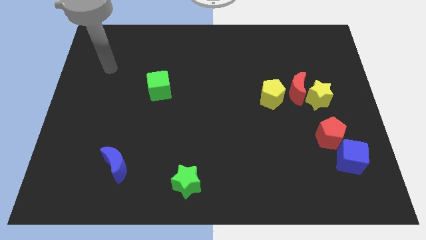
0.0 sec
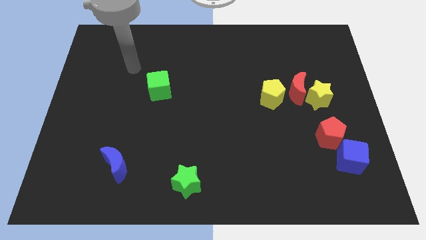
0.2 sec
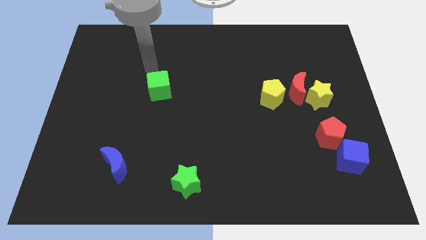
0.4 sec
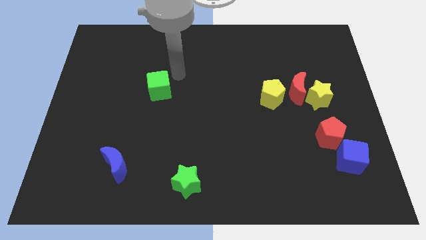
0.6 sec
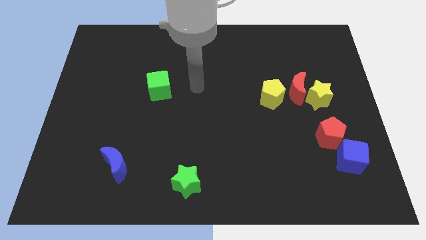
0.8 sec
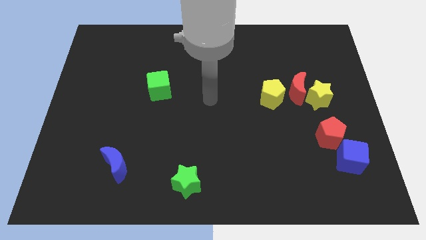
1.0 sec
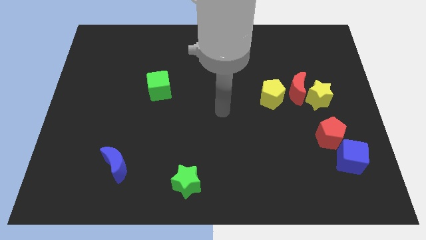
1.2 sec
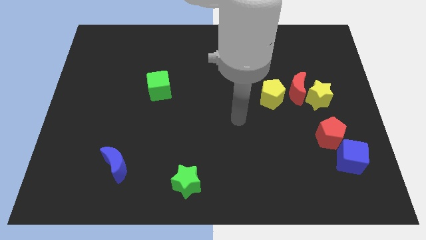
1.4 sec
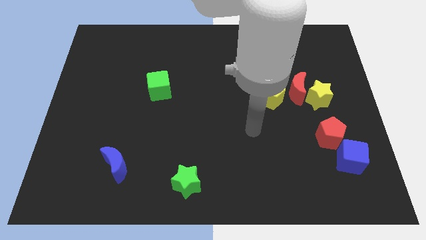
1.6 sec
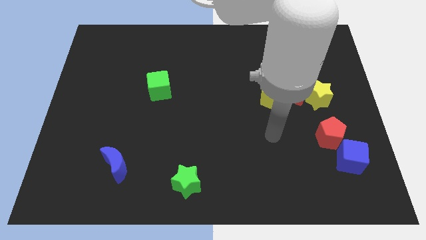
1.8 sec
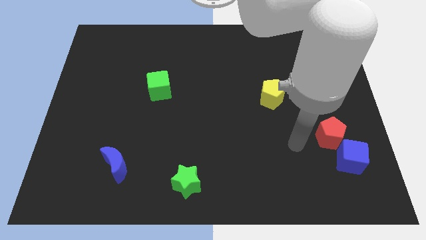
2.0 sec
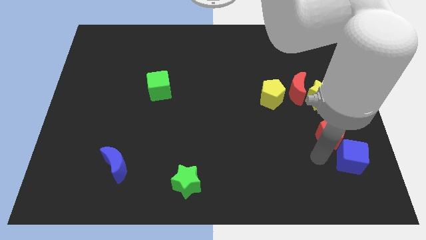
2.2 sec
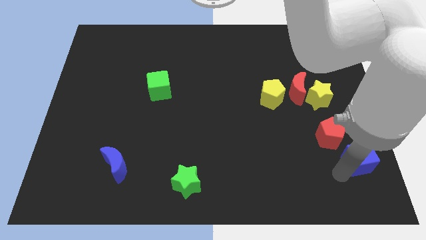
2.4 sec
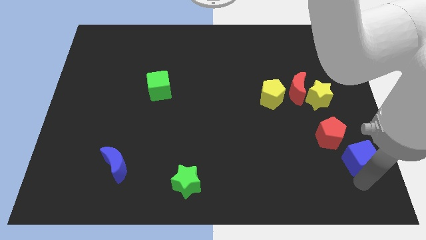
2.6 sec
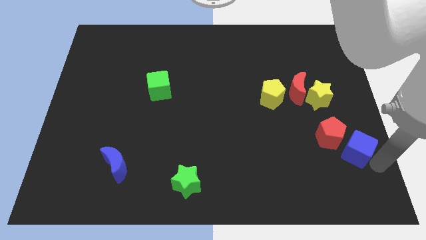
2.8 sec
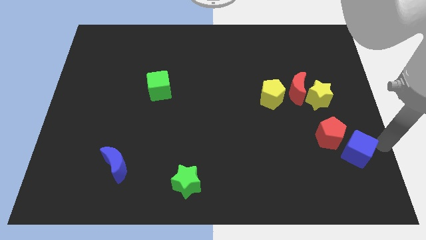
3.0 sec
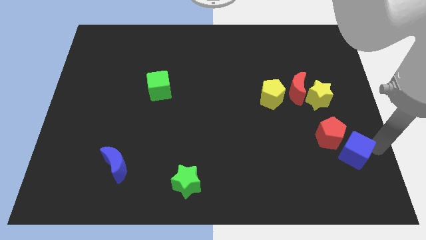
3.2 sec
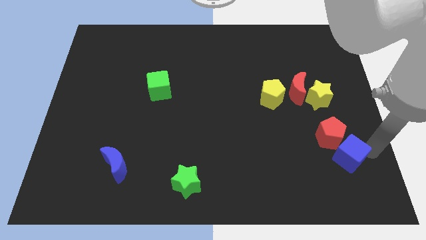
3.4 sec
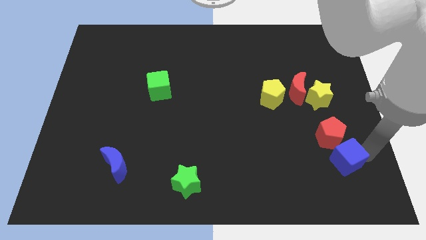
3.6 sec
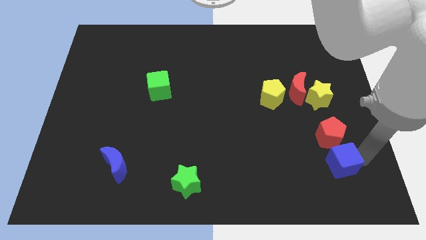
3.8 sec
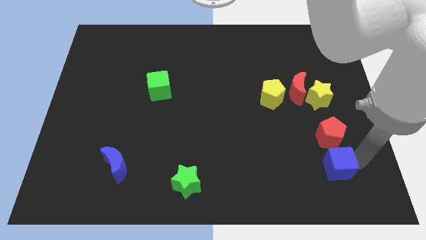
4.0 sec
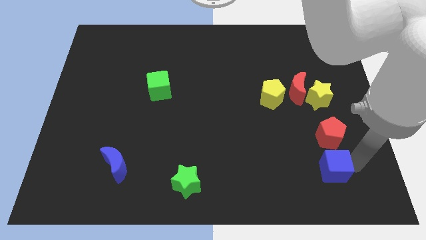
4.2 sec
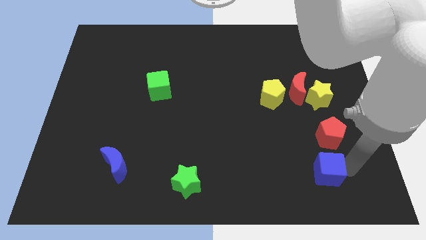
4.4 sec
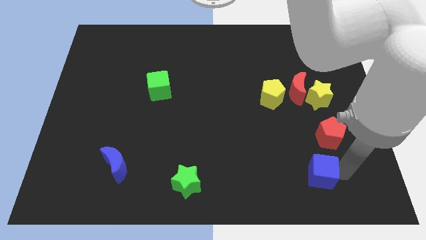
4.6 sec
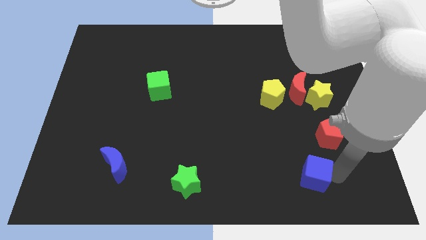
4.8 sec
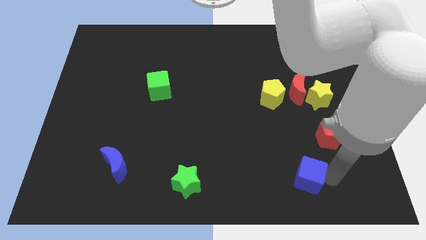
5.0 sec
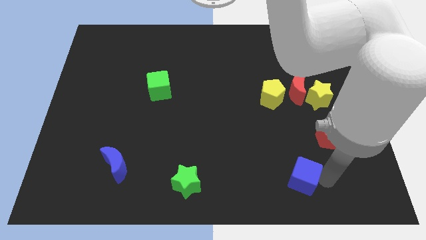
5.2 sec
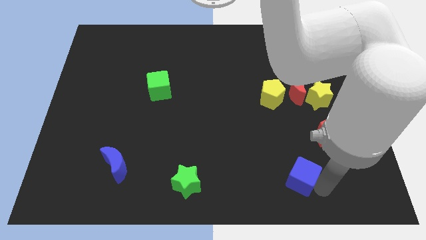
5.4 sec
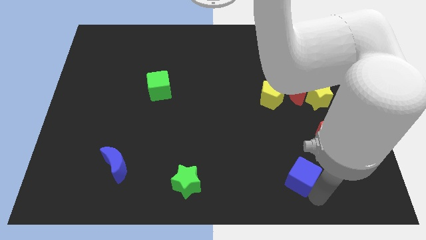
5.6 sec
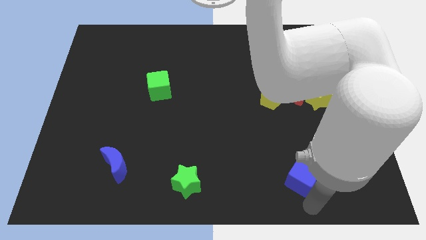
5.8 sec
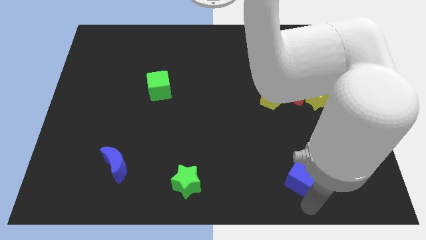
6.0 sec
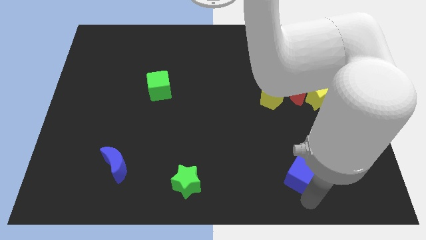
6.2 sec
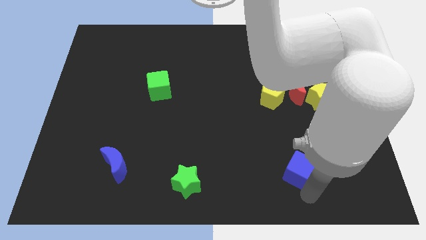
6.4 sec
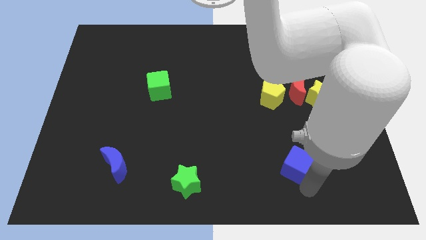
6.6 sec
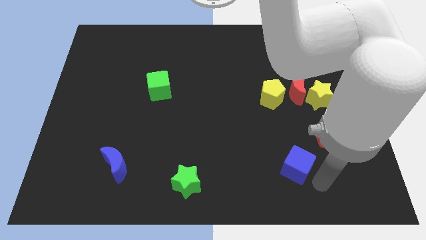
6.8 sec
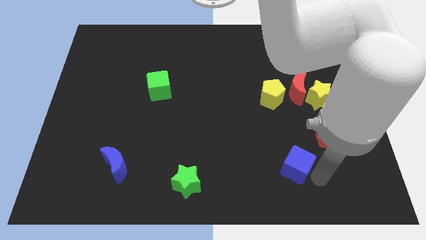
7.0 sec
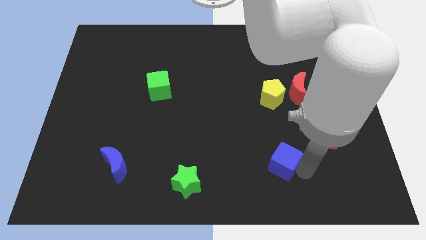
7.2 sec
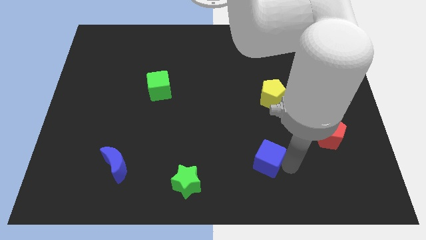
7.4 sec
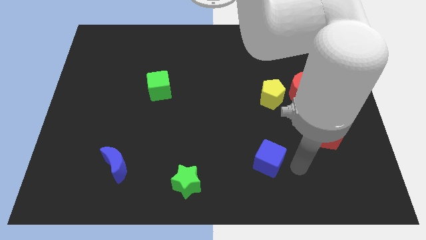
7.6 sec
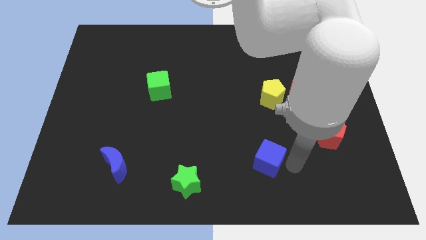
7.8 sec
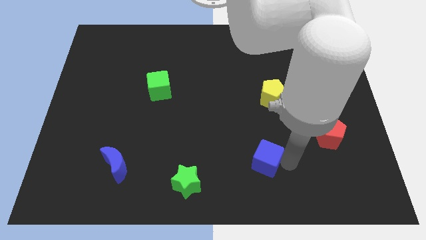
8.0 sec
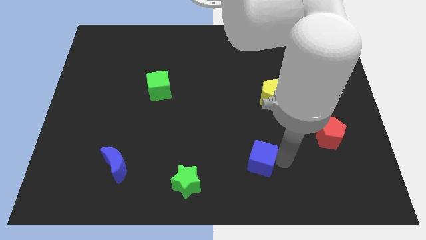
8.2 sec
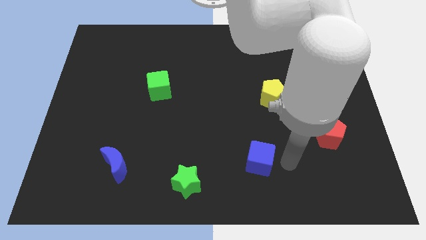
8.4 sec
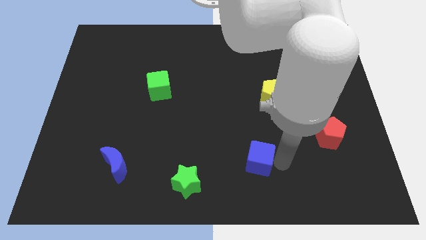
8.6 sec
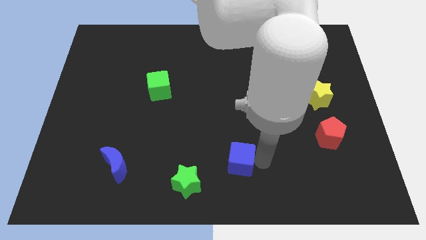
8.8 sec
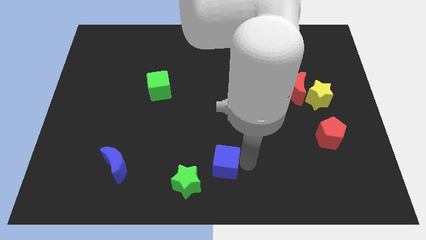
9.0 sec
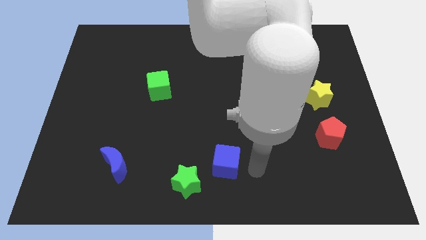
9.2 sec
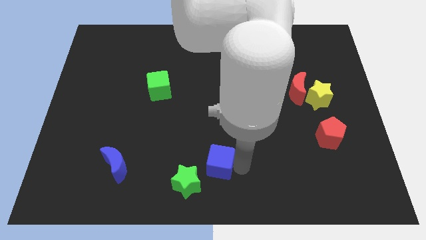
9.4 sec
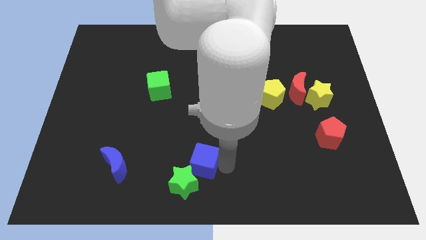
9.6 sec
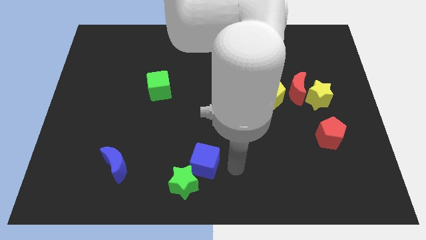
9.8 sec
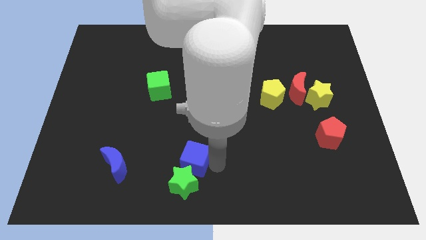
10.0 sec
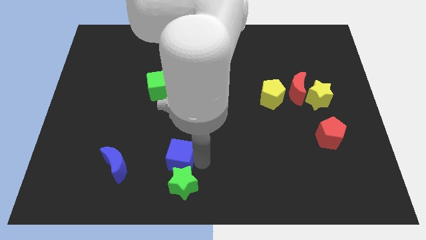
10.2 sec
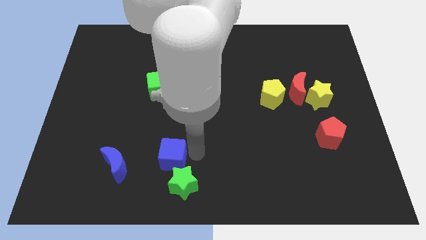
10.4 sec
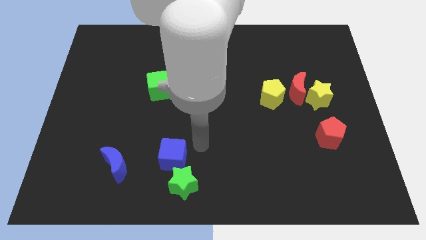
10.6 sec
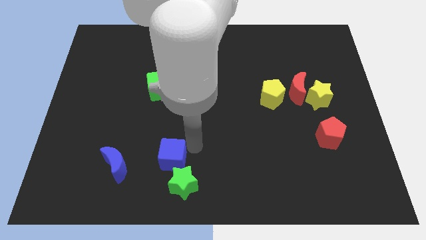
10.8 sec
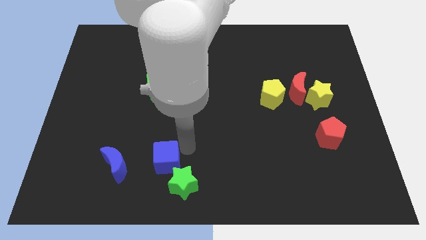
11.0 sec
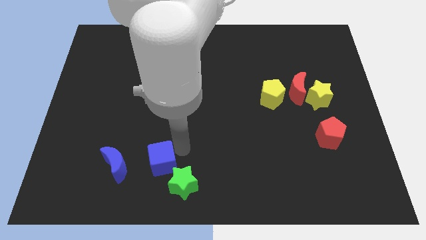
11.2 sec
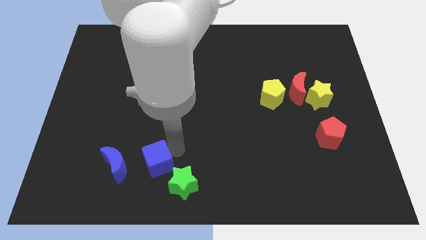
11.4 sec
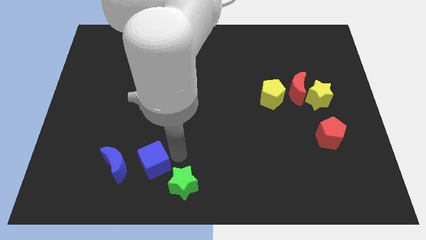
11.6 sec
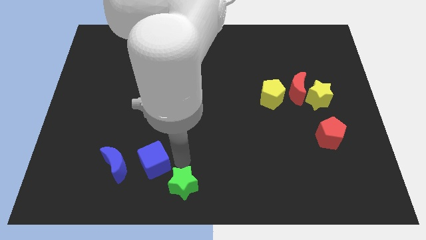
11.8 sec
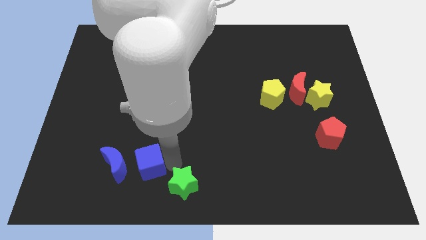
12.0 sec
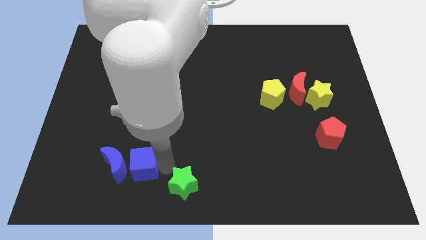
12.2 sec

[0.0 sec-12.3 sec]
slide the blue cube towards the blue moon

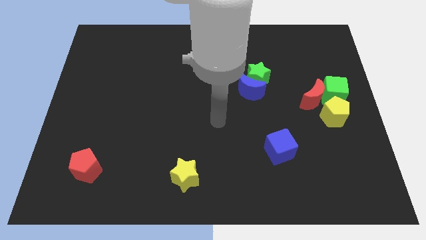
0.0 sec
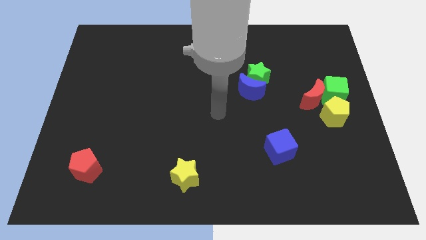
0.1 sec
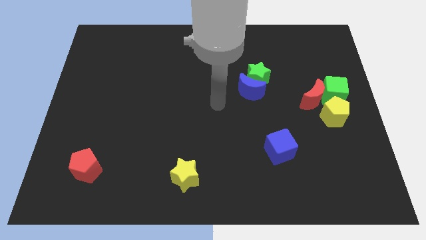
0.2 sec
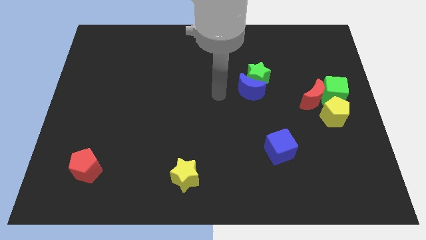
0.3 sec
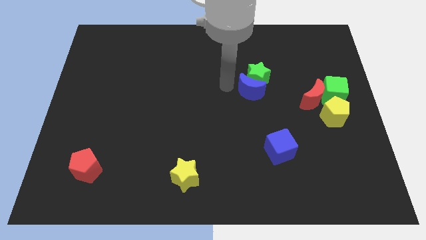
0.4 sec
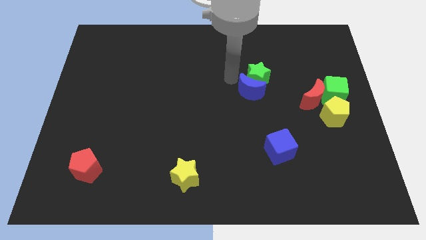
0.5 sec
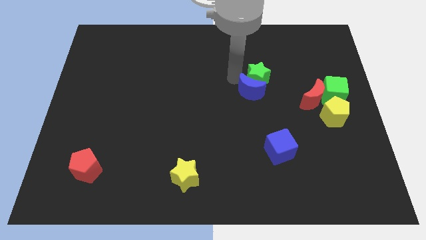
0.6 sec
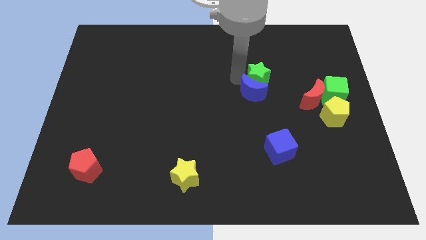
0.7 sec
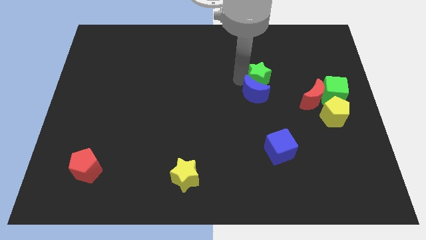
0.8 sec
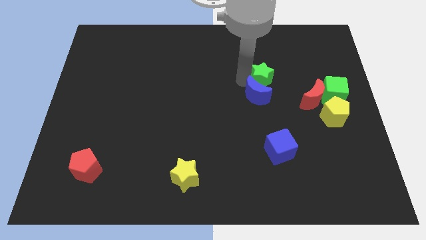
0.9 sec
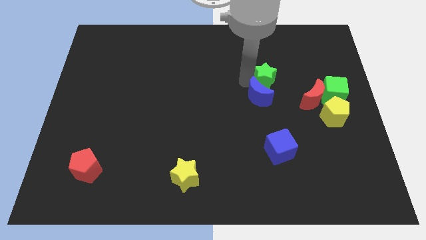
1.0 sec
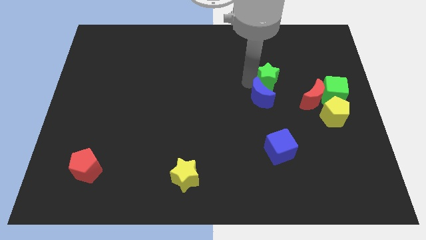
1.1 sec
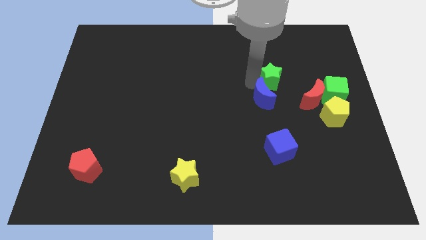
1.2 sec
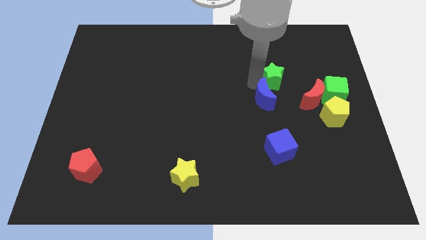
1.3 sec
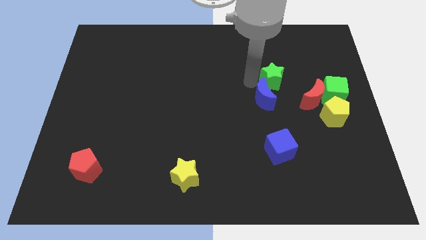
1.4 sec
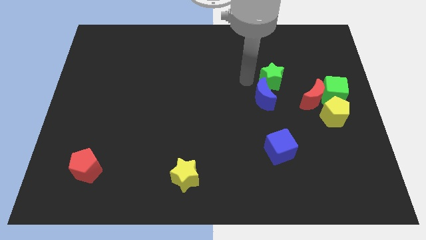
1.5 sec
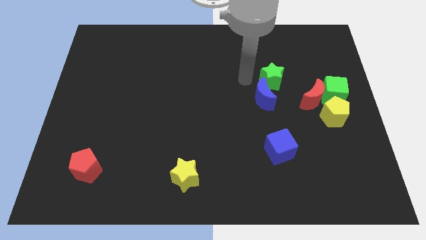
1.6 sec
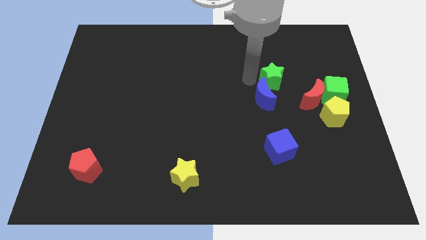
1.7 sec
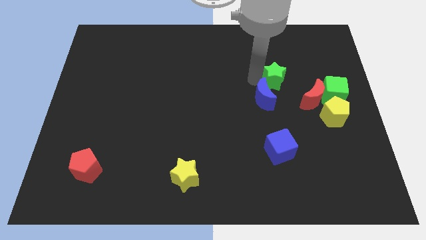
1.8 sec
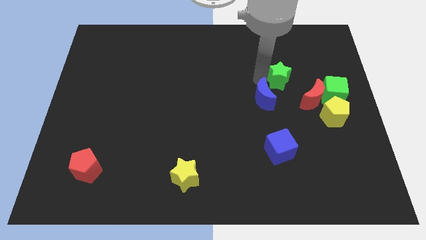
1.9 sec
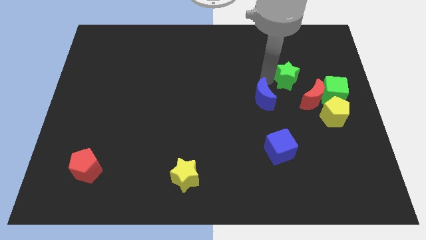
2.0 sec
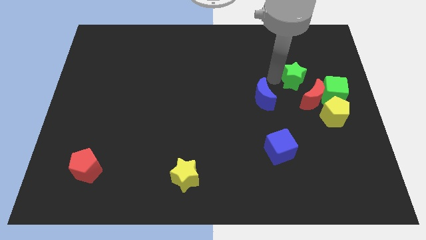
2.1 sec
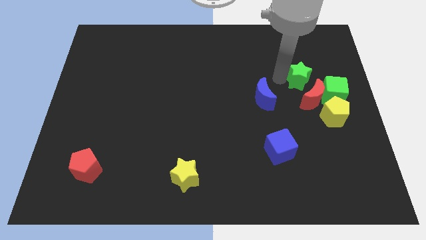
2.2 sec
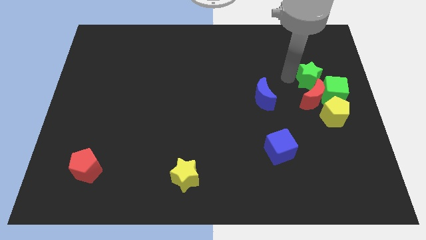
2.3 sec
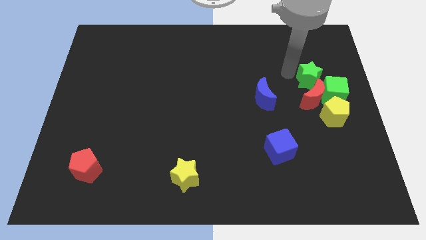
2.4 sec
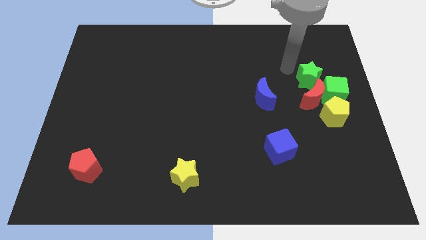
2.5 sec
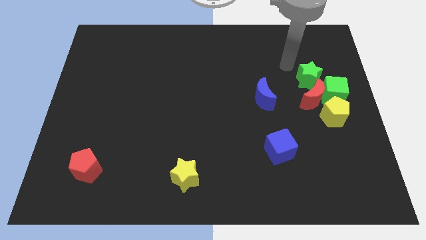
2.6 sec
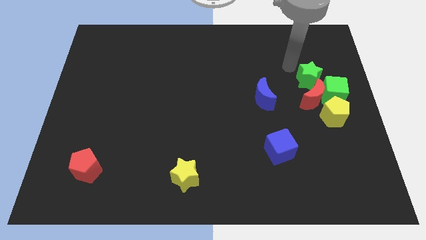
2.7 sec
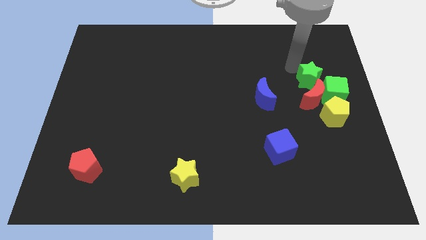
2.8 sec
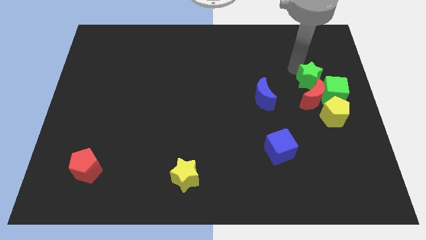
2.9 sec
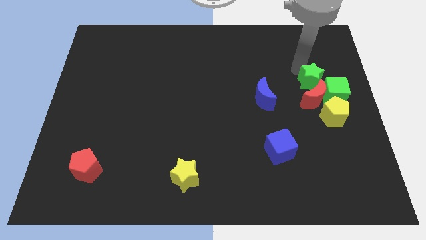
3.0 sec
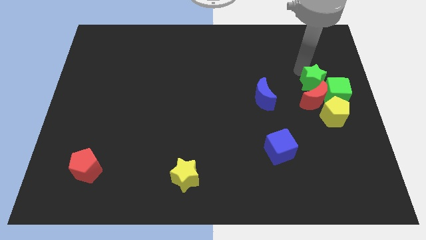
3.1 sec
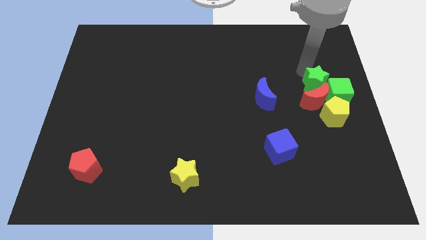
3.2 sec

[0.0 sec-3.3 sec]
push the green star towards the green cube
